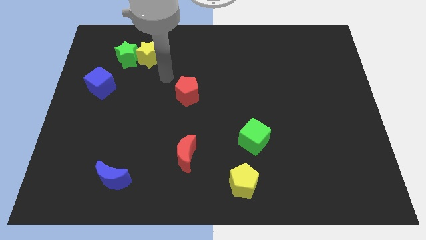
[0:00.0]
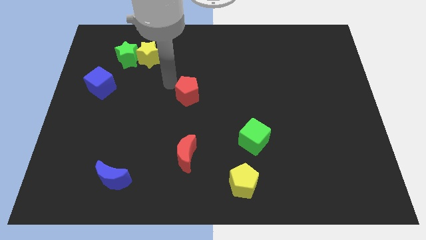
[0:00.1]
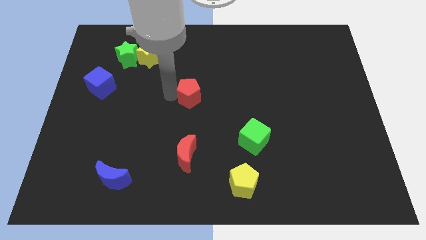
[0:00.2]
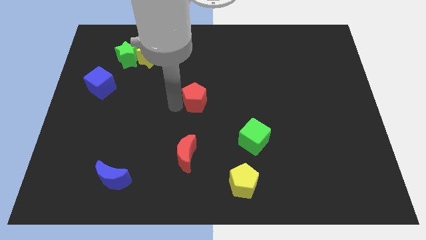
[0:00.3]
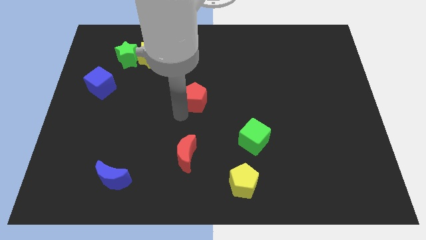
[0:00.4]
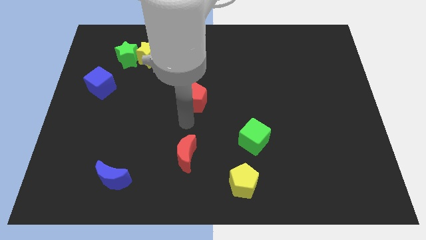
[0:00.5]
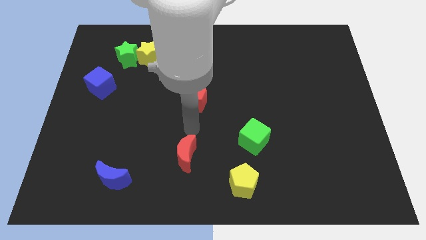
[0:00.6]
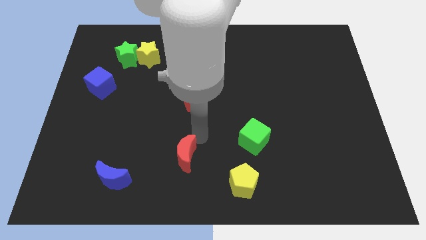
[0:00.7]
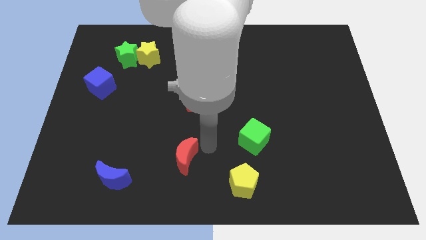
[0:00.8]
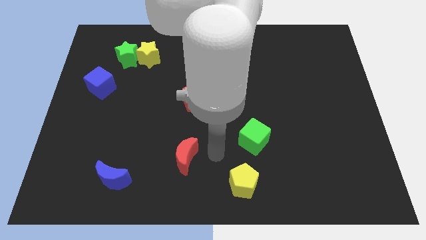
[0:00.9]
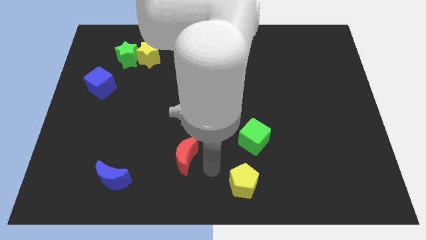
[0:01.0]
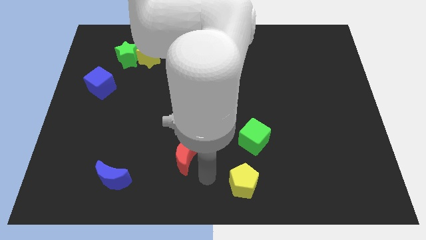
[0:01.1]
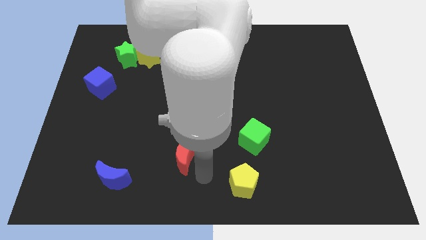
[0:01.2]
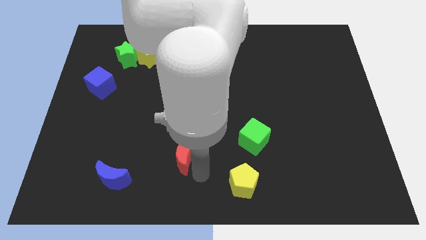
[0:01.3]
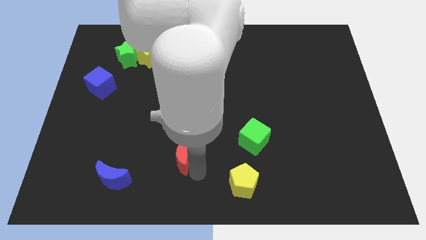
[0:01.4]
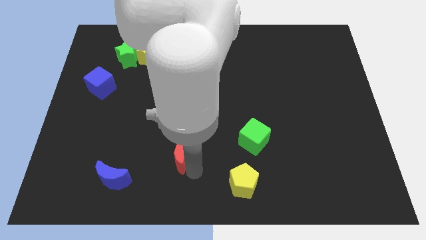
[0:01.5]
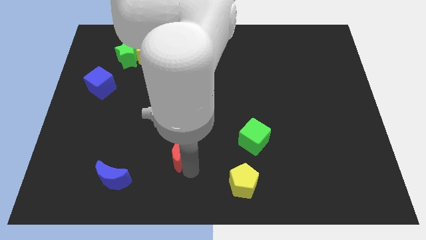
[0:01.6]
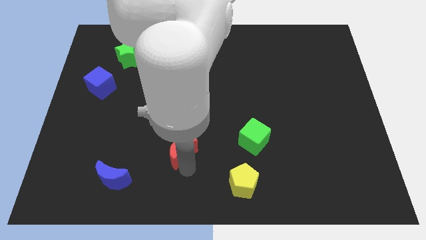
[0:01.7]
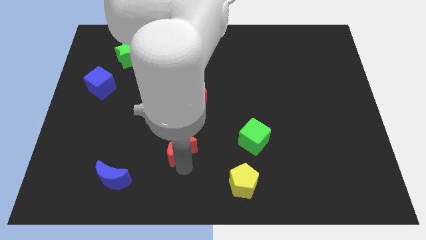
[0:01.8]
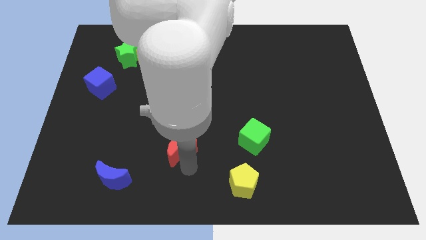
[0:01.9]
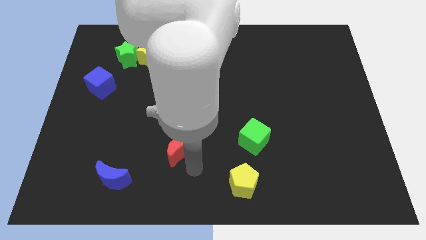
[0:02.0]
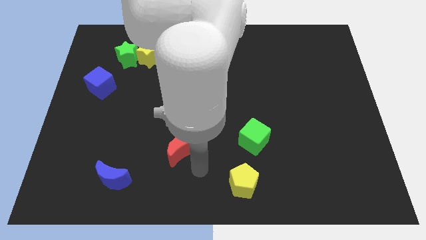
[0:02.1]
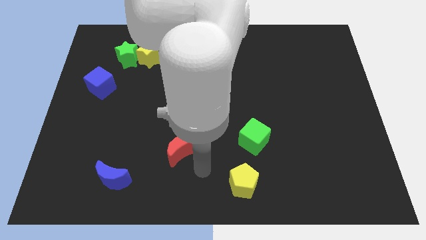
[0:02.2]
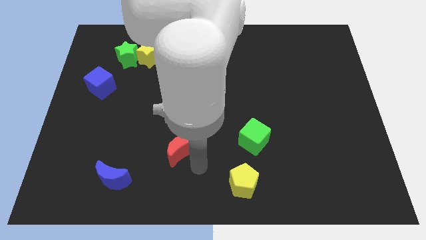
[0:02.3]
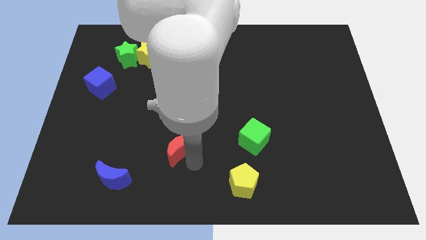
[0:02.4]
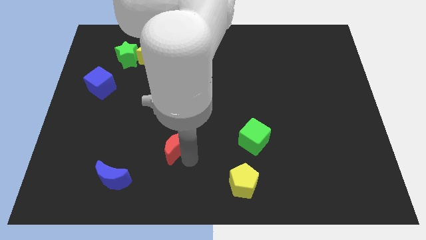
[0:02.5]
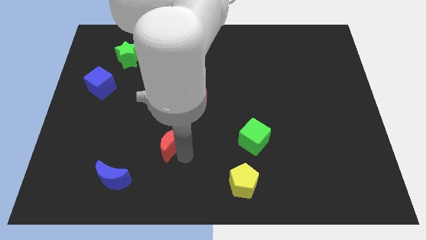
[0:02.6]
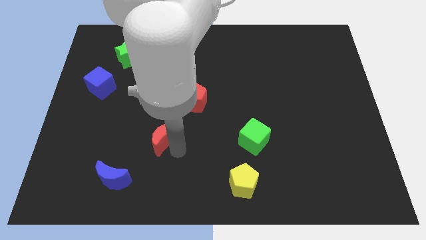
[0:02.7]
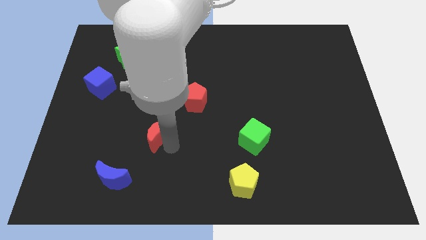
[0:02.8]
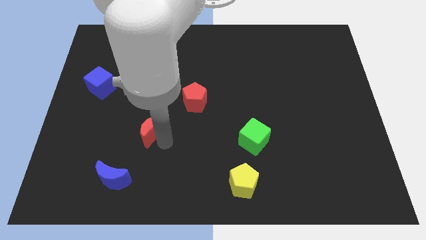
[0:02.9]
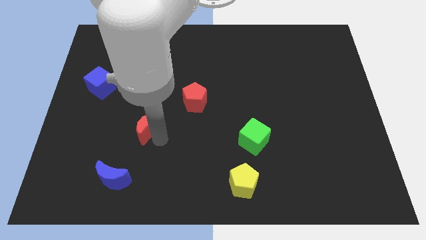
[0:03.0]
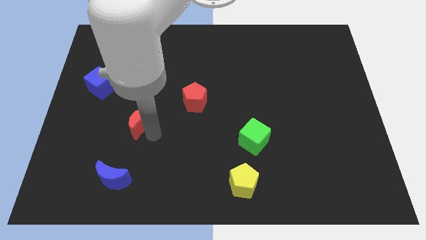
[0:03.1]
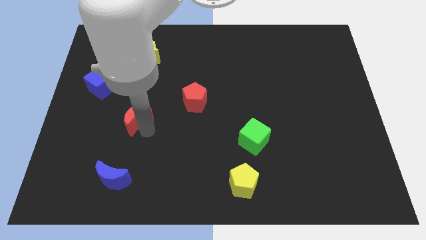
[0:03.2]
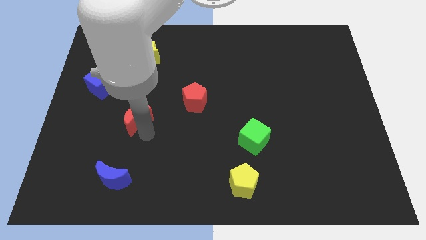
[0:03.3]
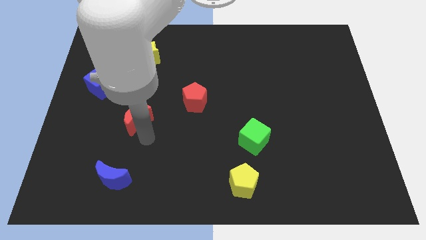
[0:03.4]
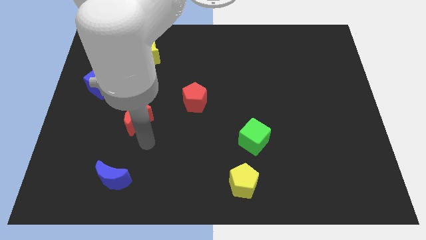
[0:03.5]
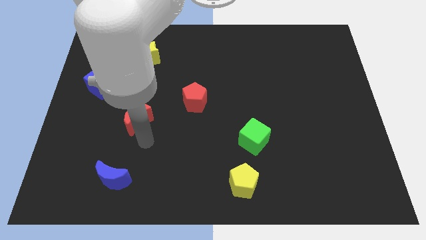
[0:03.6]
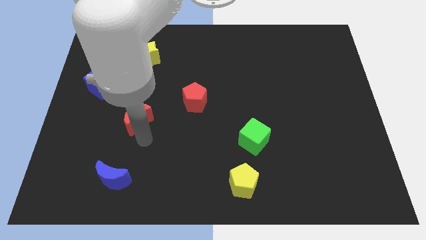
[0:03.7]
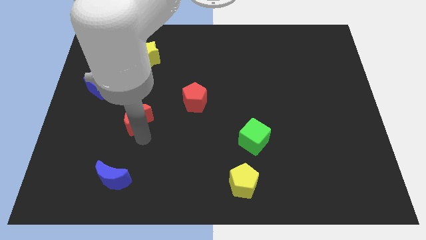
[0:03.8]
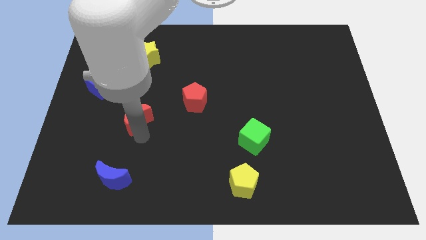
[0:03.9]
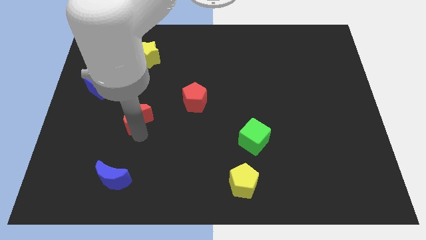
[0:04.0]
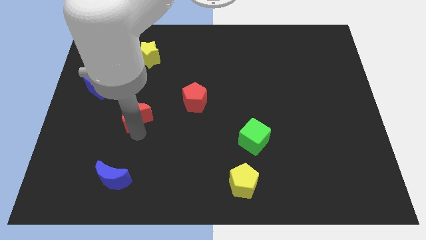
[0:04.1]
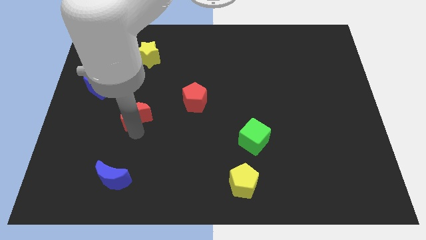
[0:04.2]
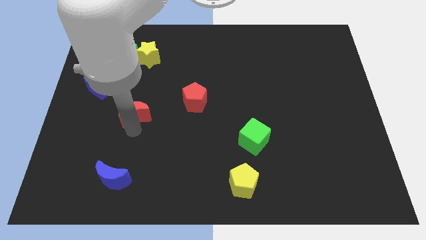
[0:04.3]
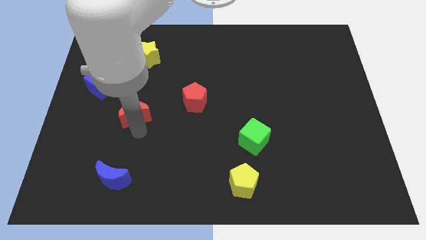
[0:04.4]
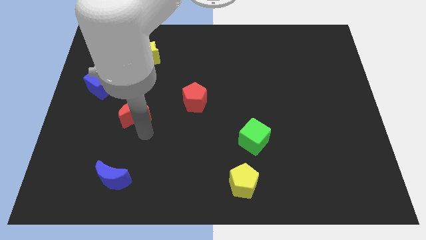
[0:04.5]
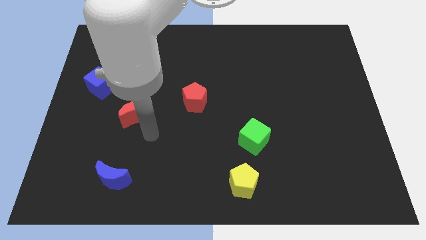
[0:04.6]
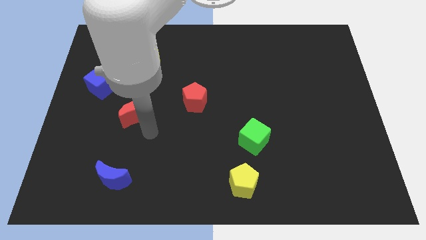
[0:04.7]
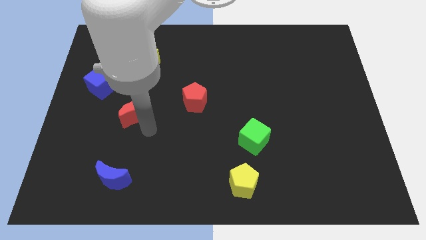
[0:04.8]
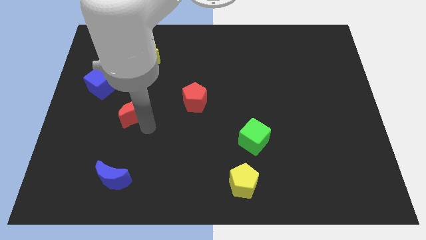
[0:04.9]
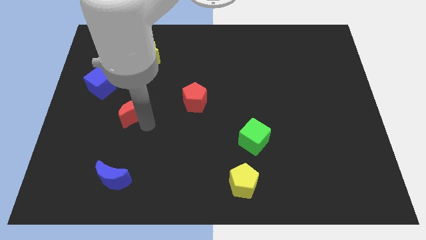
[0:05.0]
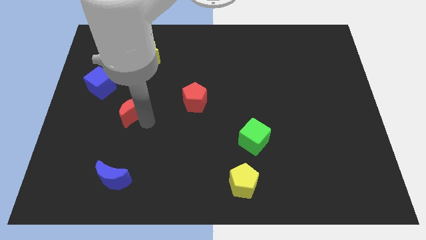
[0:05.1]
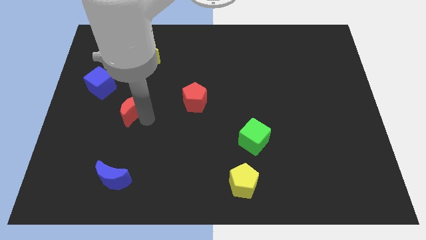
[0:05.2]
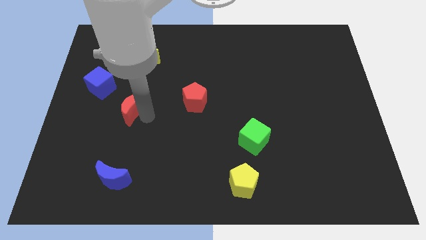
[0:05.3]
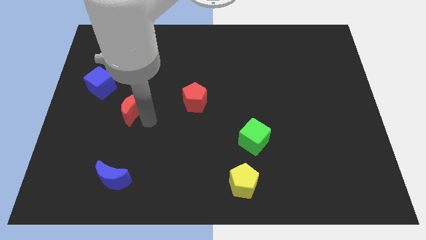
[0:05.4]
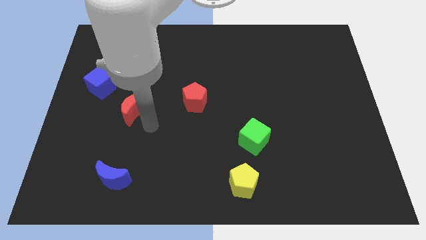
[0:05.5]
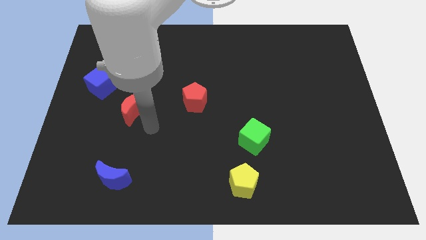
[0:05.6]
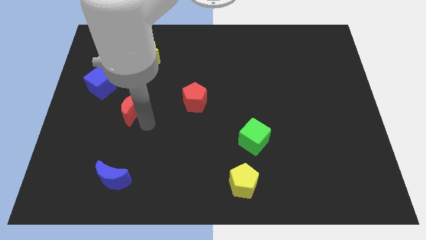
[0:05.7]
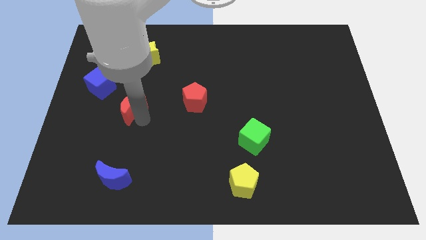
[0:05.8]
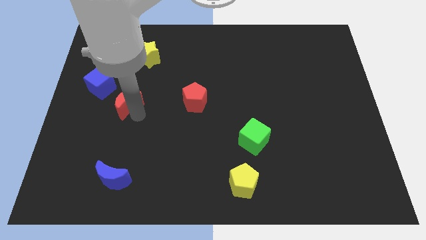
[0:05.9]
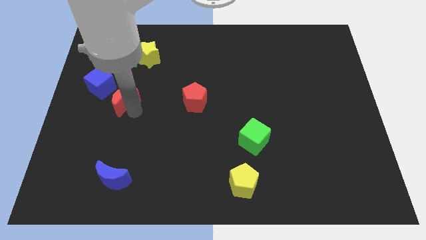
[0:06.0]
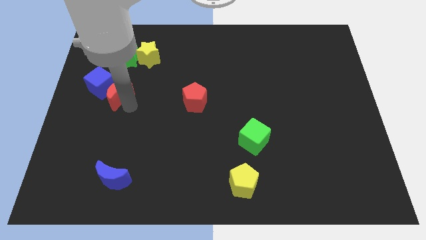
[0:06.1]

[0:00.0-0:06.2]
slide the red moon close to the blue cube

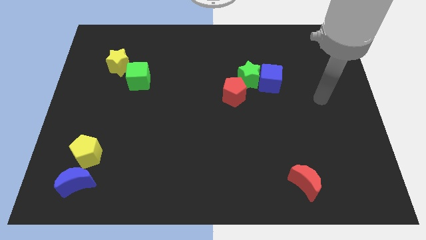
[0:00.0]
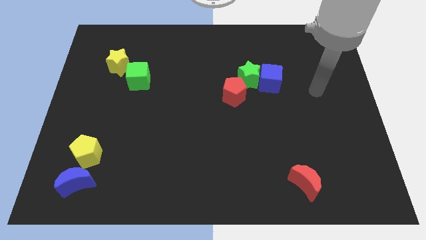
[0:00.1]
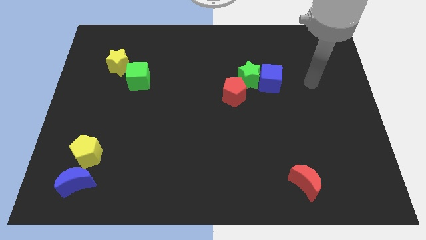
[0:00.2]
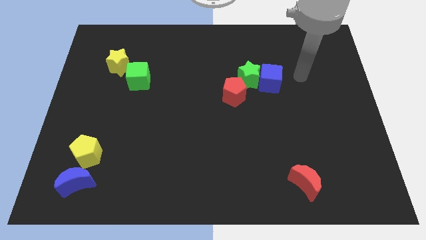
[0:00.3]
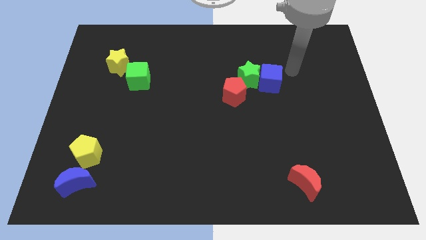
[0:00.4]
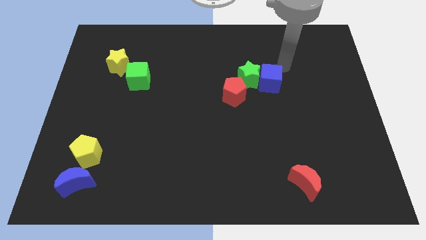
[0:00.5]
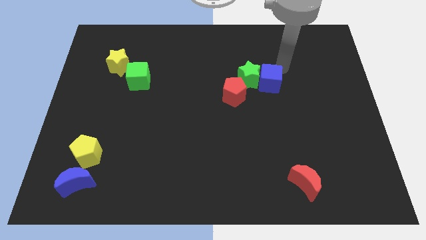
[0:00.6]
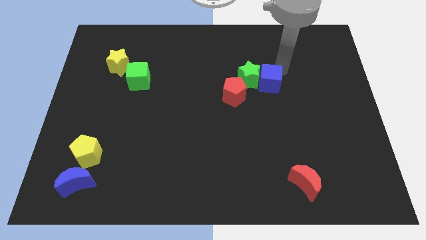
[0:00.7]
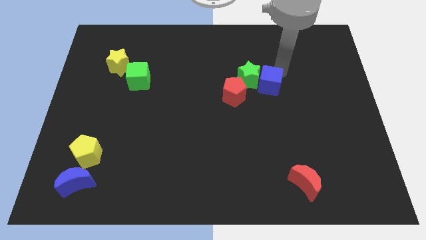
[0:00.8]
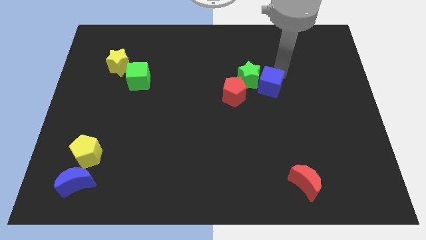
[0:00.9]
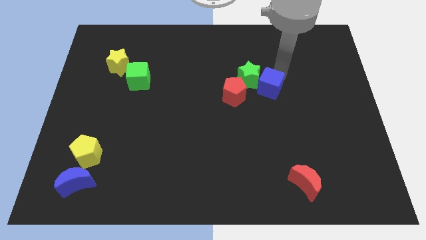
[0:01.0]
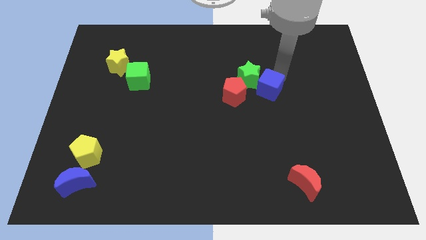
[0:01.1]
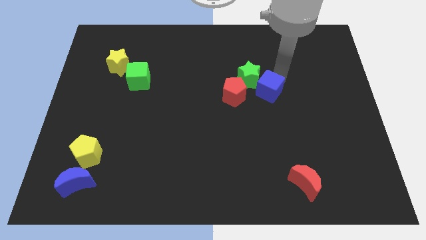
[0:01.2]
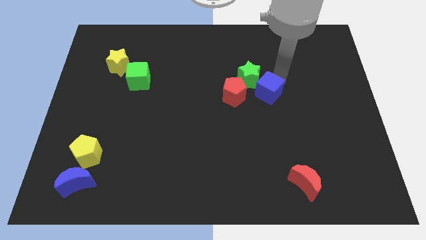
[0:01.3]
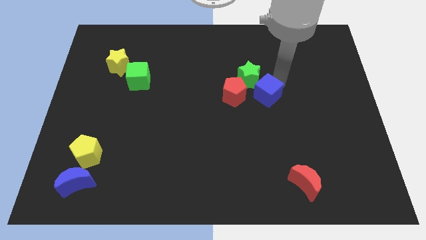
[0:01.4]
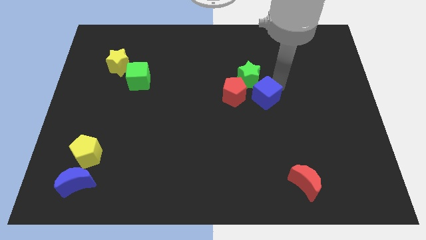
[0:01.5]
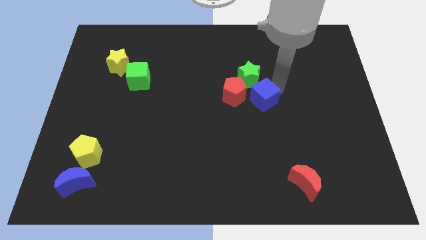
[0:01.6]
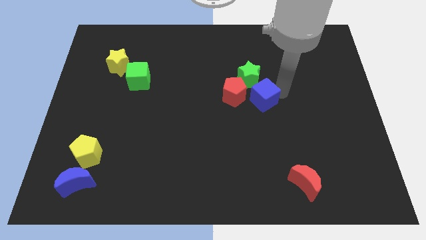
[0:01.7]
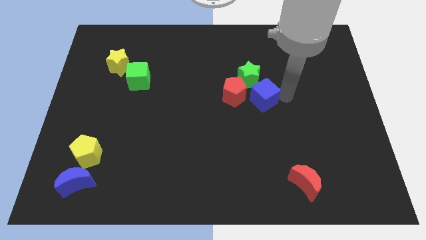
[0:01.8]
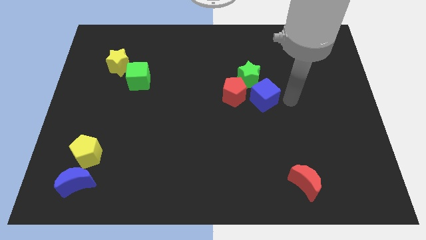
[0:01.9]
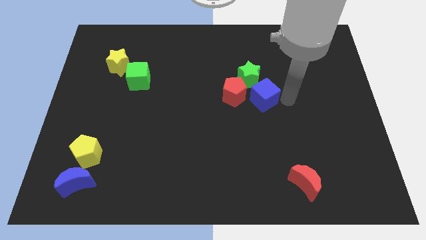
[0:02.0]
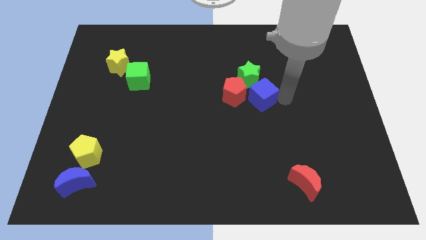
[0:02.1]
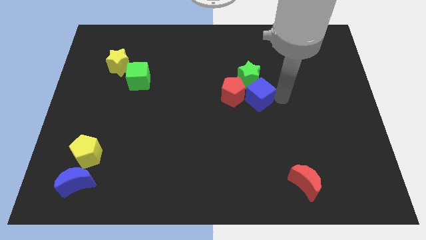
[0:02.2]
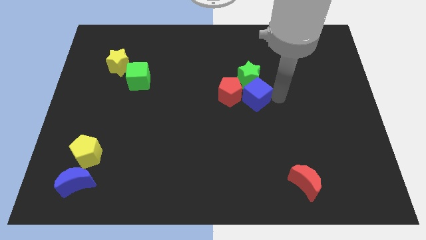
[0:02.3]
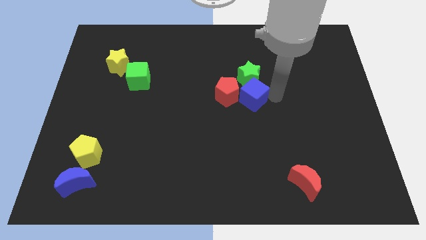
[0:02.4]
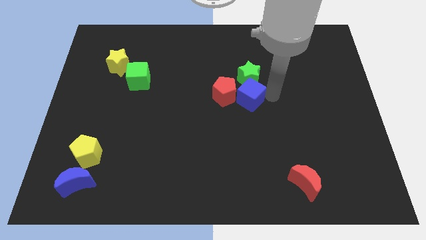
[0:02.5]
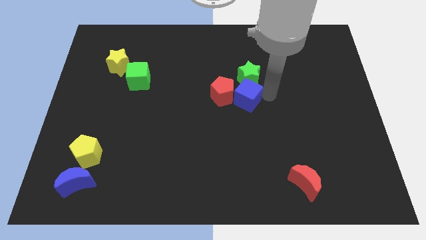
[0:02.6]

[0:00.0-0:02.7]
move the blue cube towards the red pentagon
